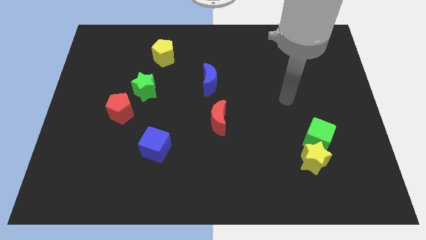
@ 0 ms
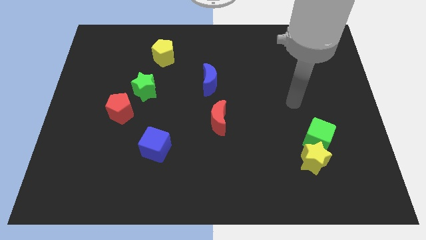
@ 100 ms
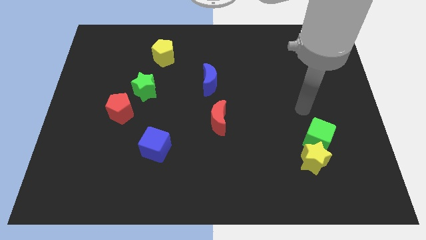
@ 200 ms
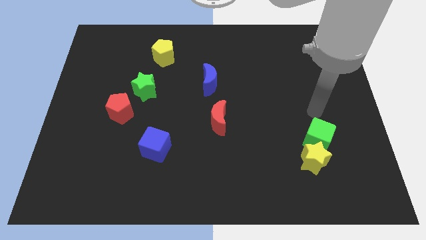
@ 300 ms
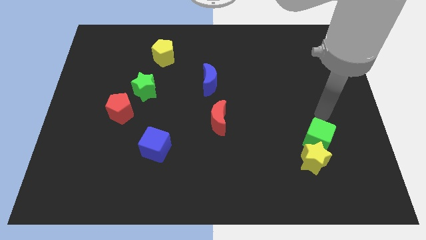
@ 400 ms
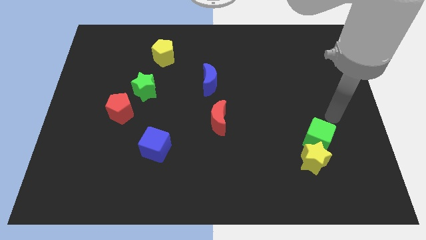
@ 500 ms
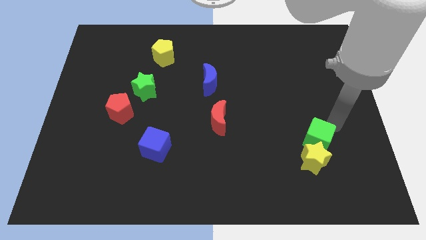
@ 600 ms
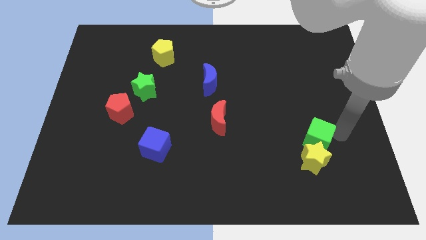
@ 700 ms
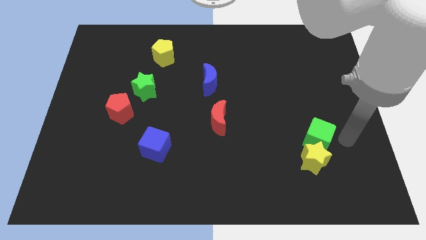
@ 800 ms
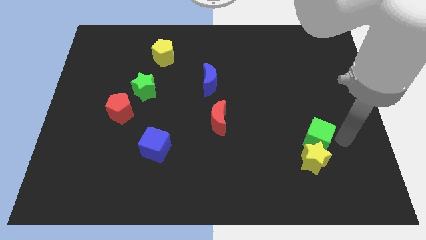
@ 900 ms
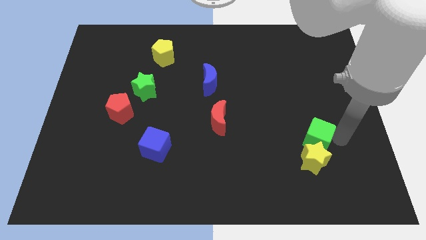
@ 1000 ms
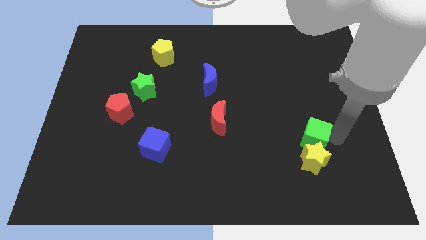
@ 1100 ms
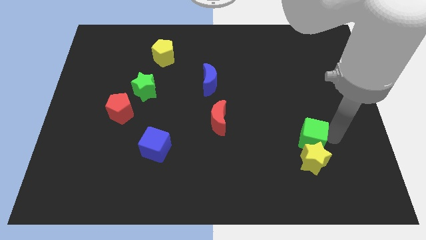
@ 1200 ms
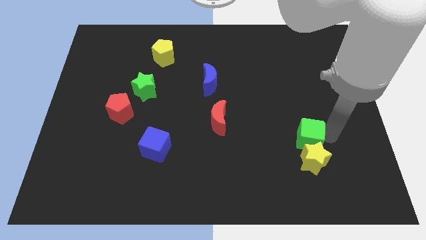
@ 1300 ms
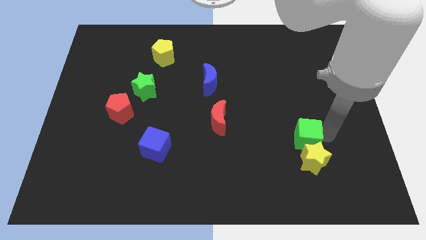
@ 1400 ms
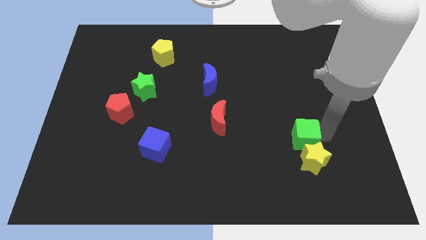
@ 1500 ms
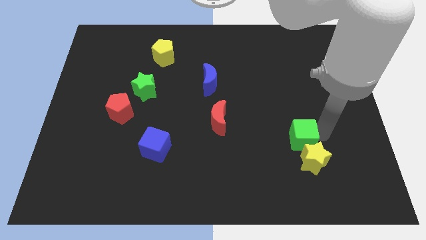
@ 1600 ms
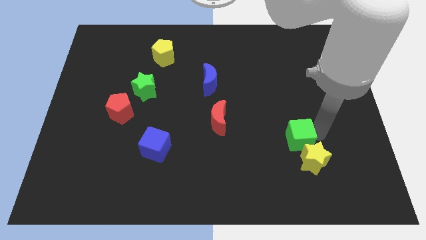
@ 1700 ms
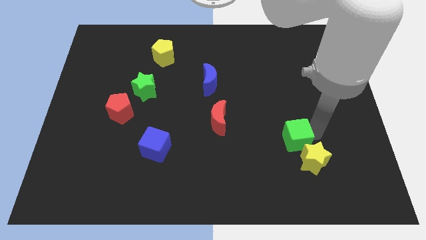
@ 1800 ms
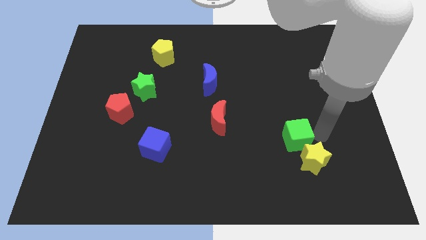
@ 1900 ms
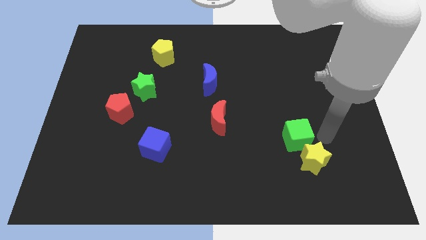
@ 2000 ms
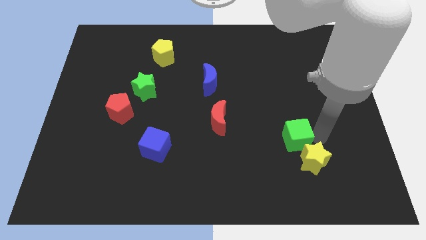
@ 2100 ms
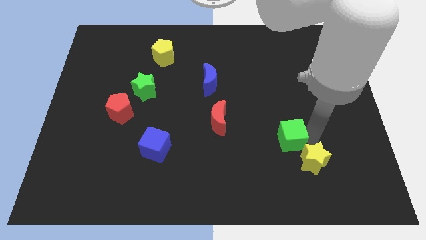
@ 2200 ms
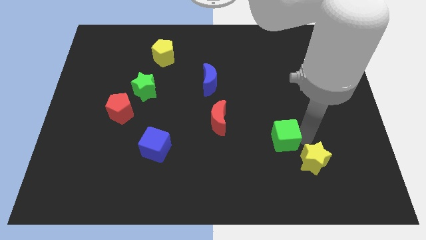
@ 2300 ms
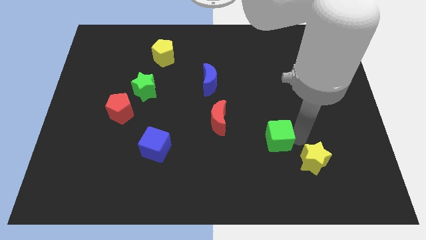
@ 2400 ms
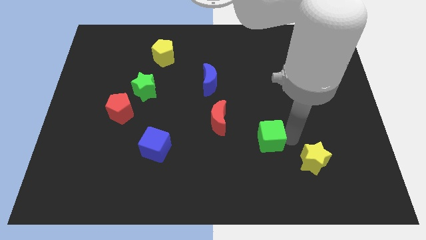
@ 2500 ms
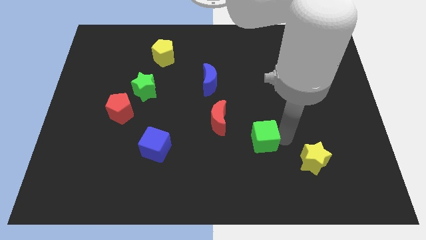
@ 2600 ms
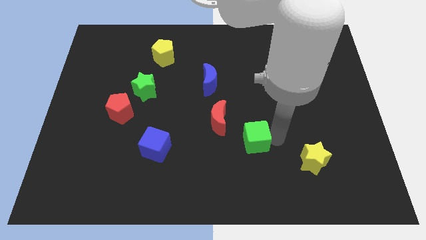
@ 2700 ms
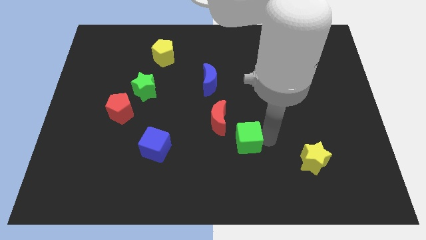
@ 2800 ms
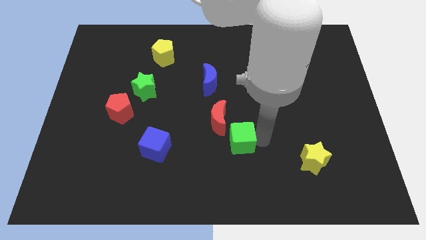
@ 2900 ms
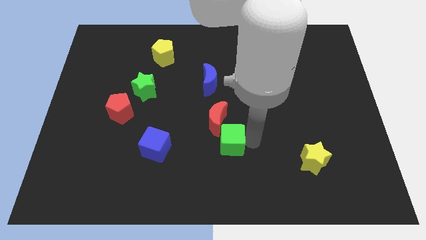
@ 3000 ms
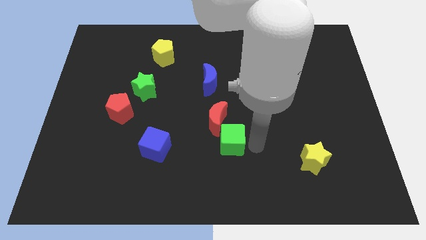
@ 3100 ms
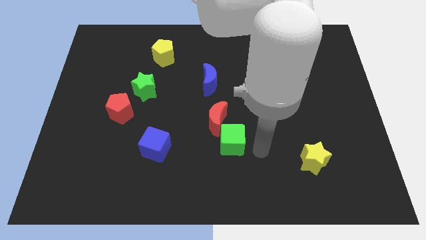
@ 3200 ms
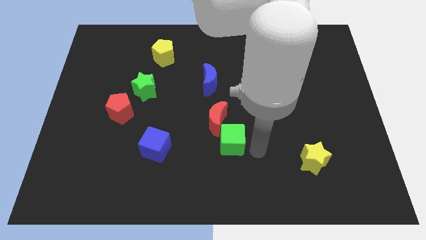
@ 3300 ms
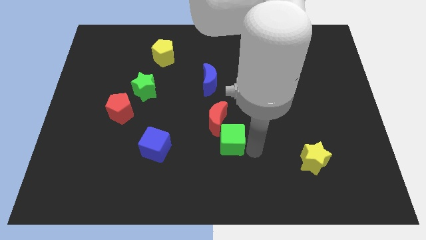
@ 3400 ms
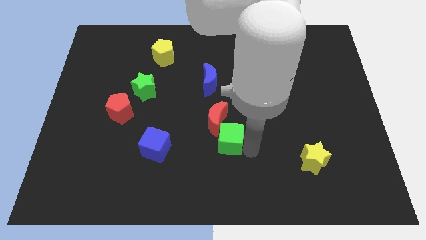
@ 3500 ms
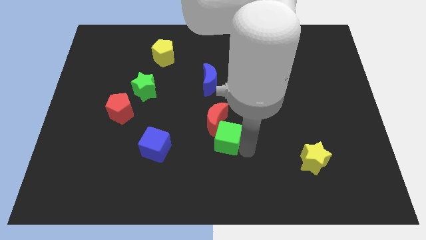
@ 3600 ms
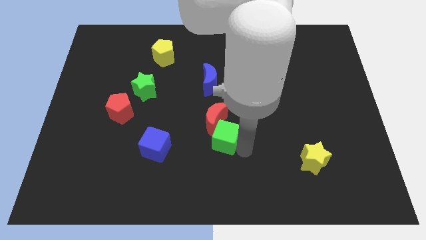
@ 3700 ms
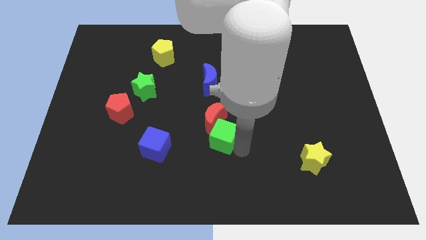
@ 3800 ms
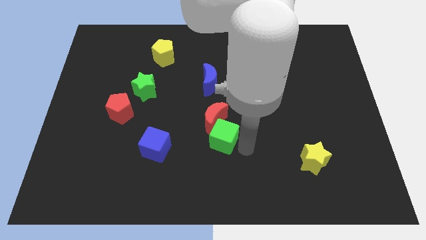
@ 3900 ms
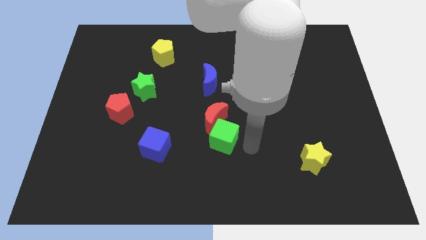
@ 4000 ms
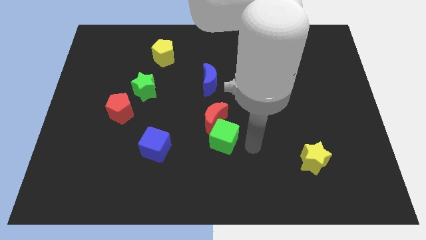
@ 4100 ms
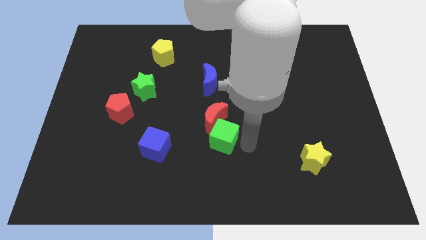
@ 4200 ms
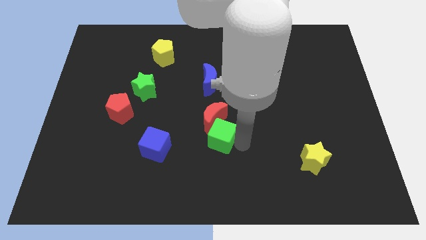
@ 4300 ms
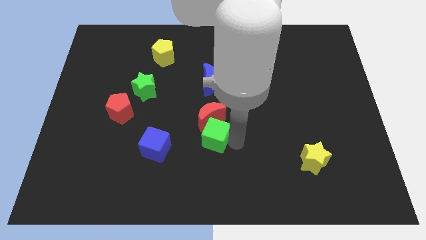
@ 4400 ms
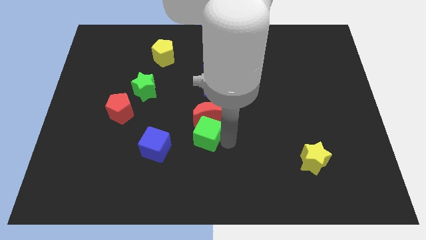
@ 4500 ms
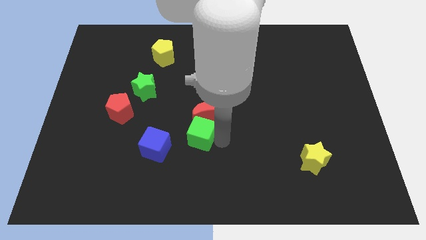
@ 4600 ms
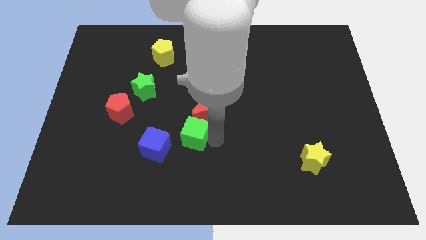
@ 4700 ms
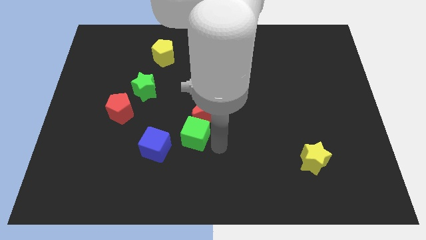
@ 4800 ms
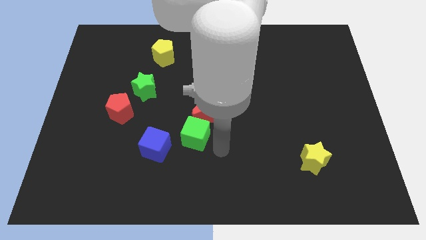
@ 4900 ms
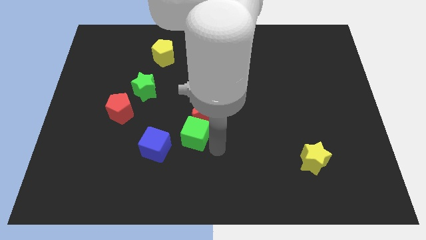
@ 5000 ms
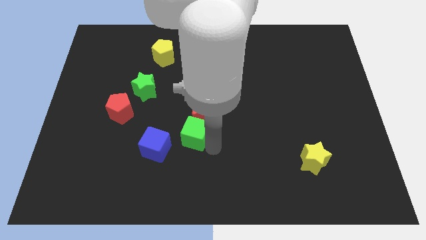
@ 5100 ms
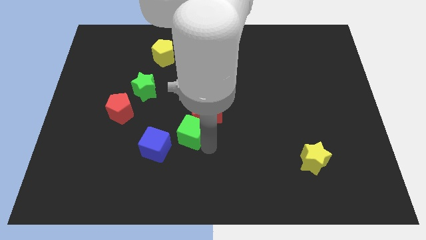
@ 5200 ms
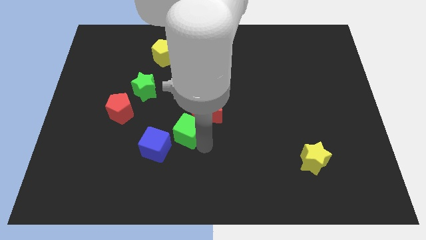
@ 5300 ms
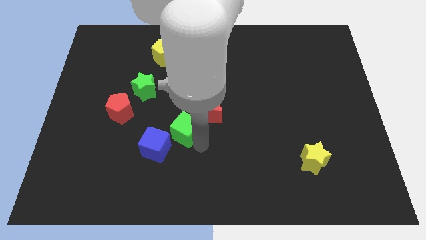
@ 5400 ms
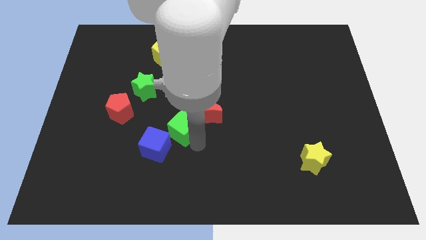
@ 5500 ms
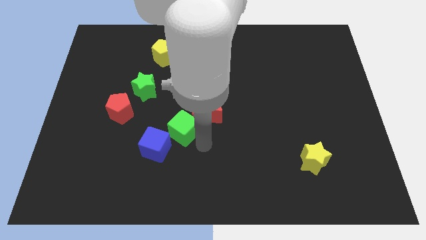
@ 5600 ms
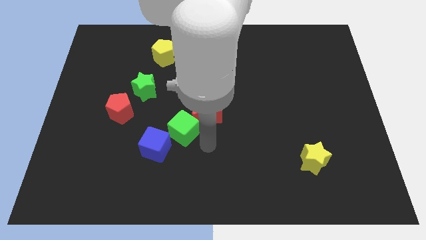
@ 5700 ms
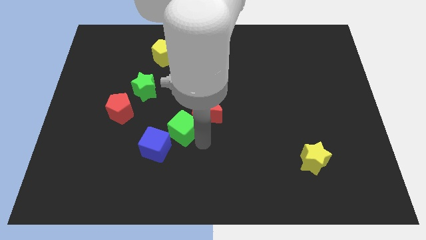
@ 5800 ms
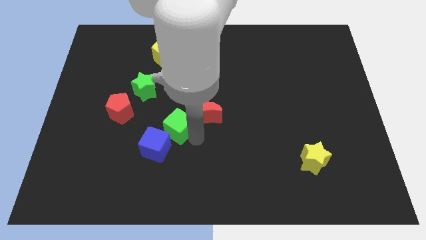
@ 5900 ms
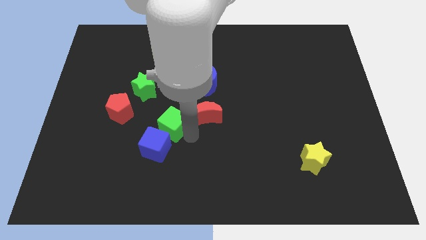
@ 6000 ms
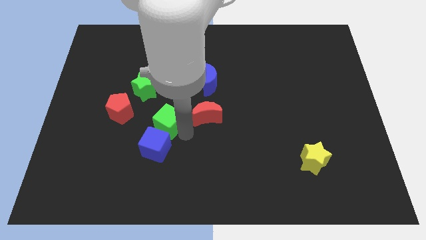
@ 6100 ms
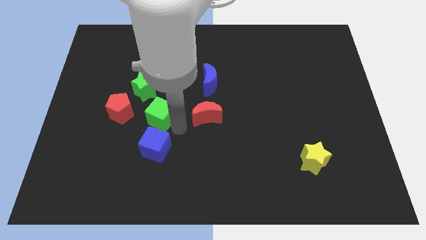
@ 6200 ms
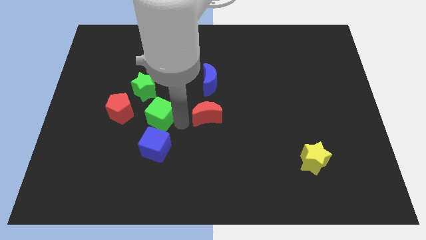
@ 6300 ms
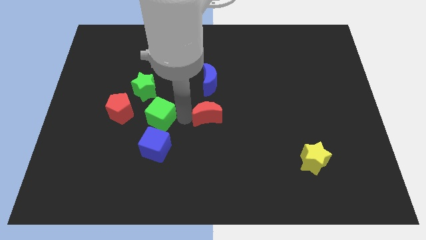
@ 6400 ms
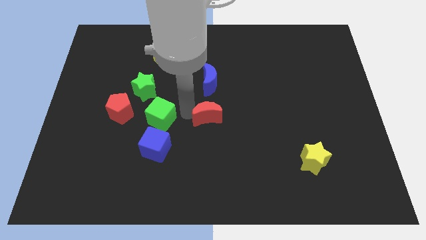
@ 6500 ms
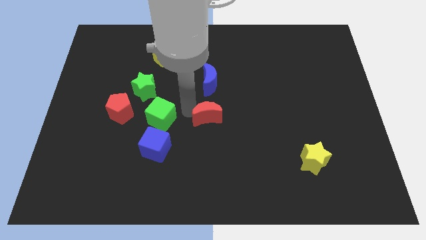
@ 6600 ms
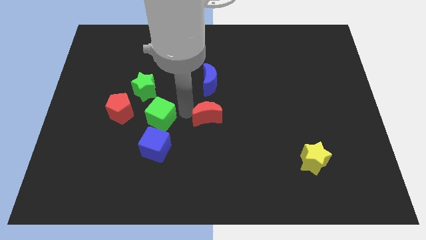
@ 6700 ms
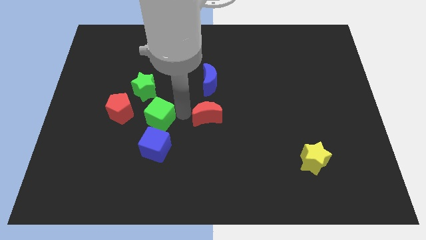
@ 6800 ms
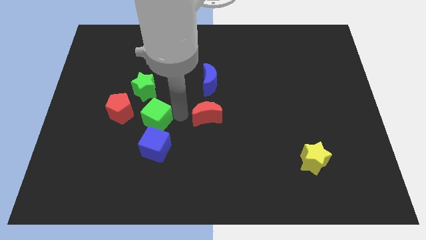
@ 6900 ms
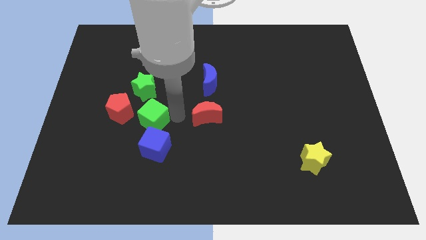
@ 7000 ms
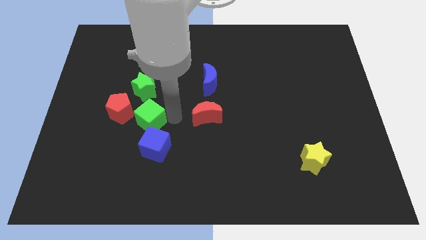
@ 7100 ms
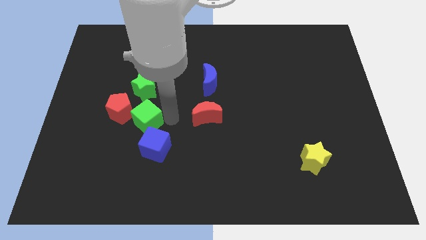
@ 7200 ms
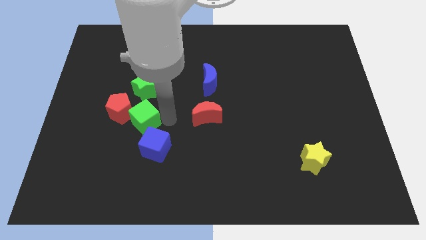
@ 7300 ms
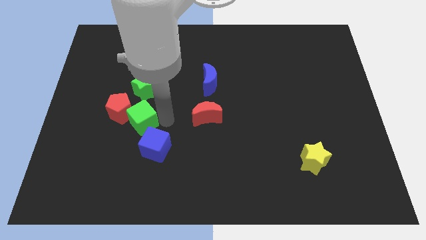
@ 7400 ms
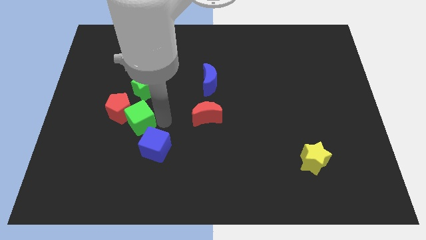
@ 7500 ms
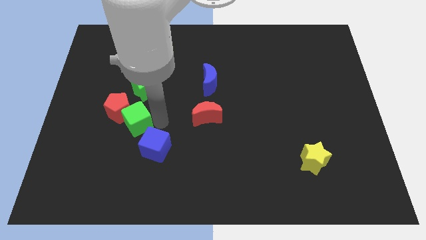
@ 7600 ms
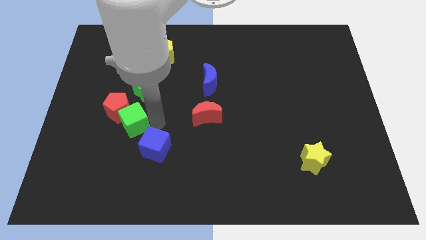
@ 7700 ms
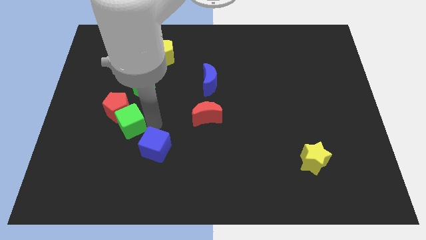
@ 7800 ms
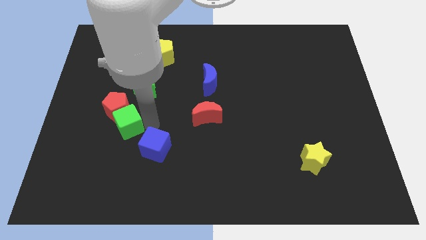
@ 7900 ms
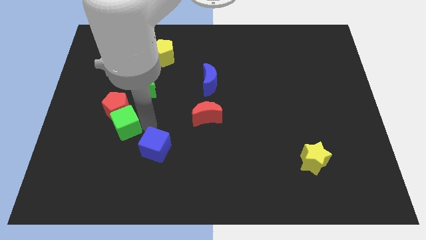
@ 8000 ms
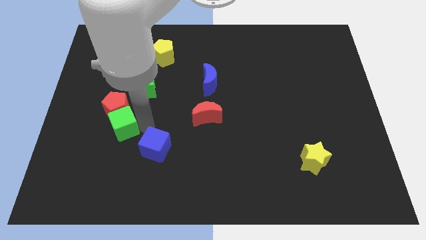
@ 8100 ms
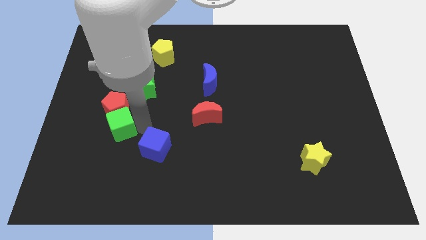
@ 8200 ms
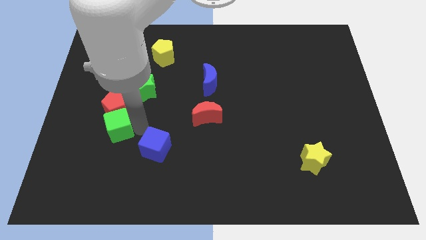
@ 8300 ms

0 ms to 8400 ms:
put the green cube diagonally down and to the left of the red pentagon
